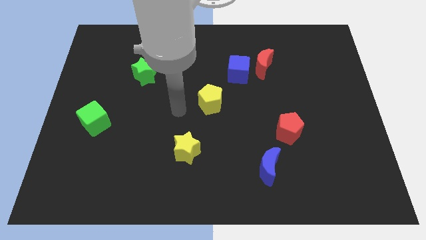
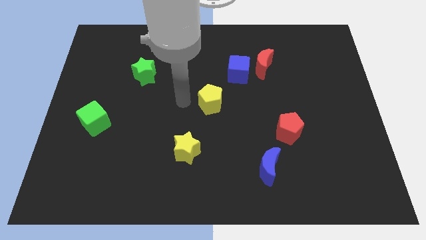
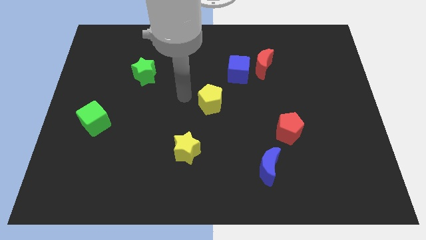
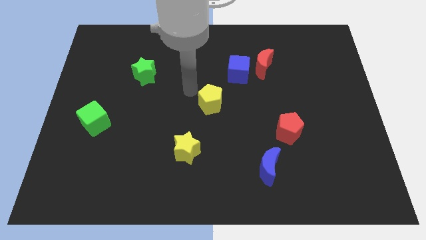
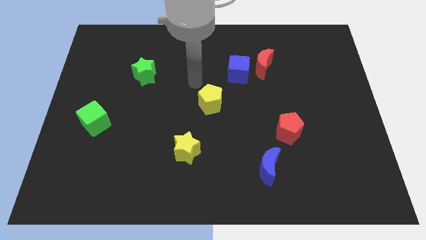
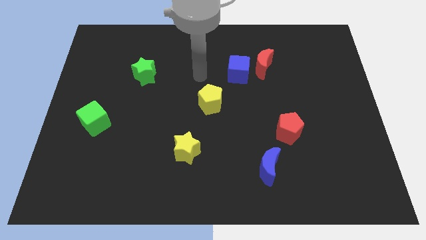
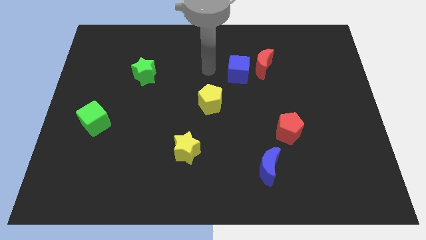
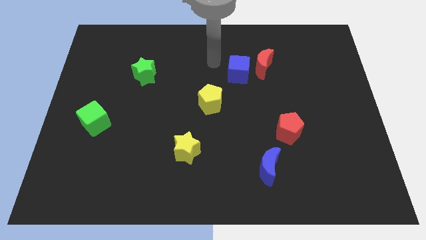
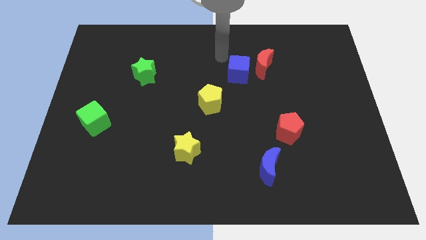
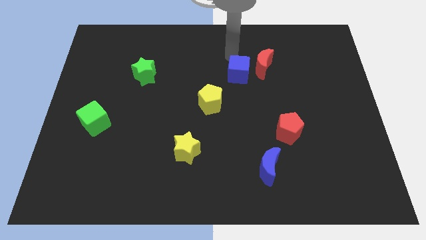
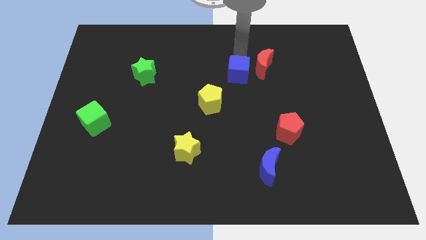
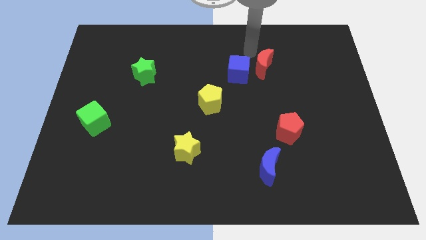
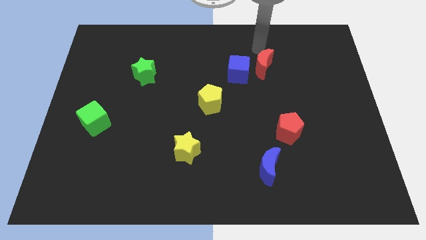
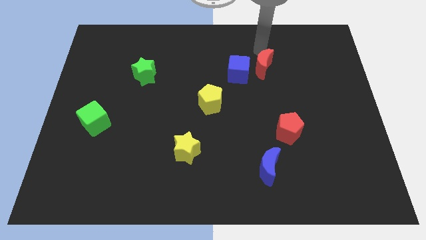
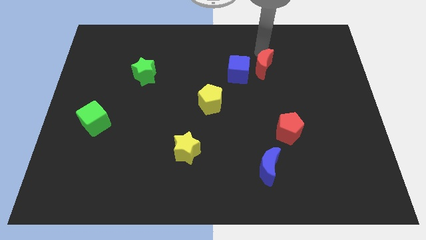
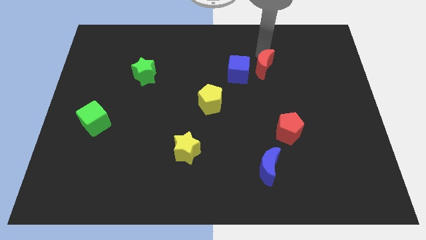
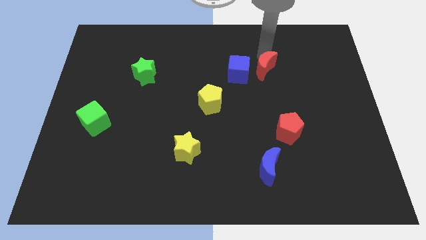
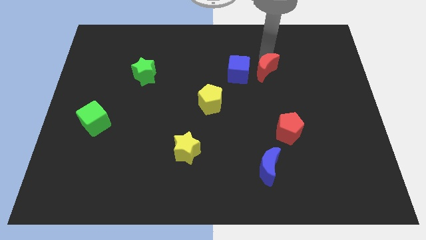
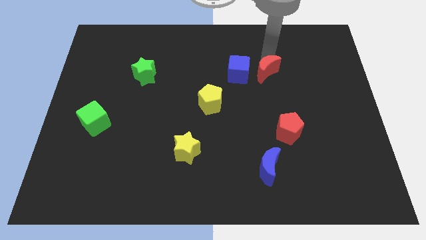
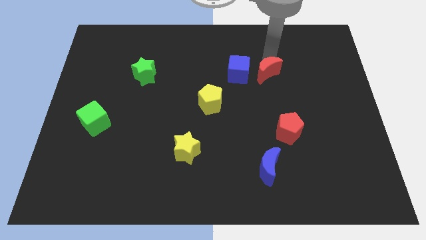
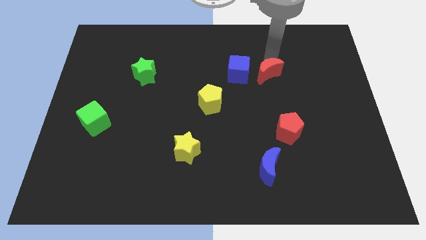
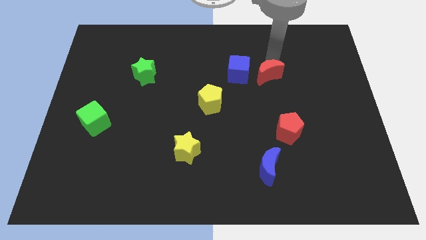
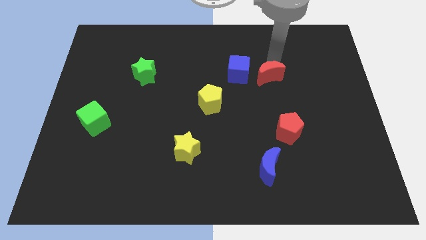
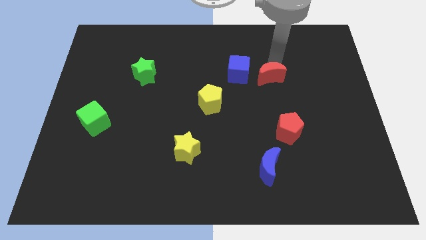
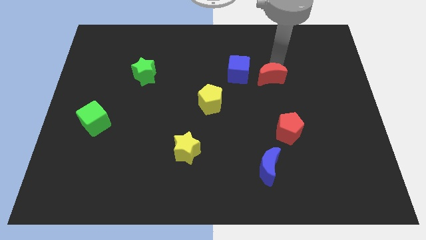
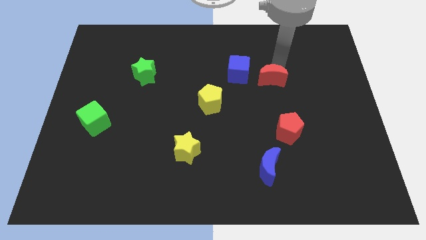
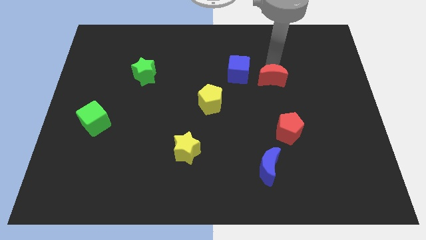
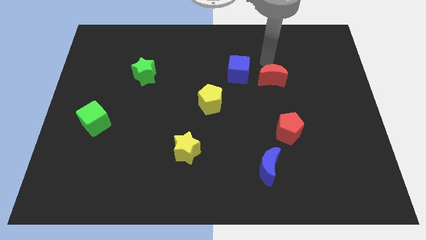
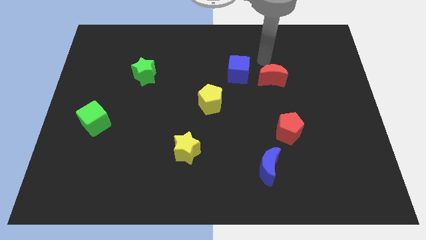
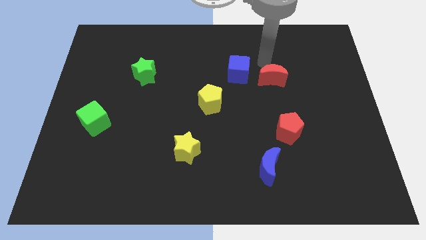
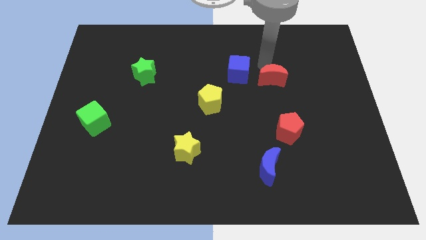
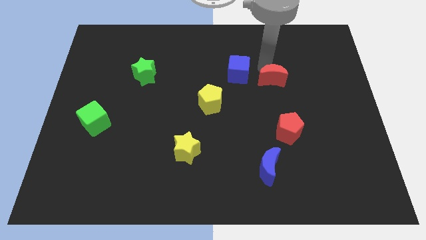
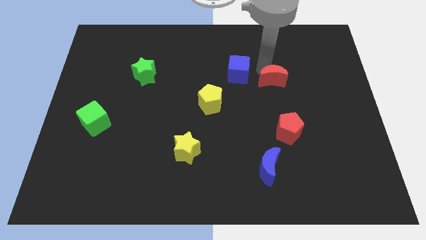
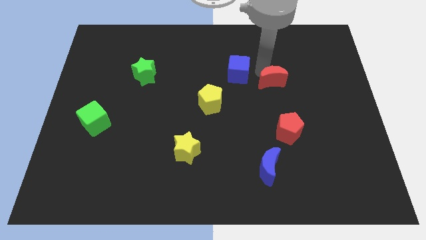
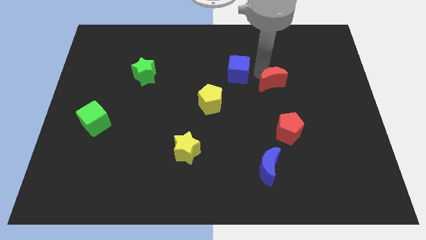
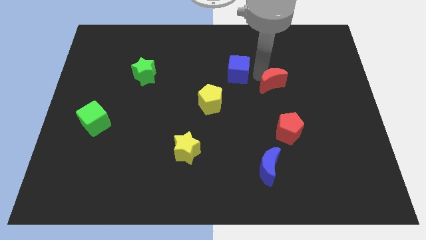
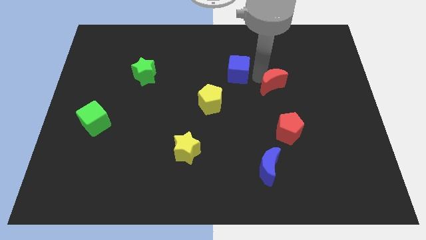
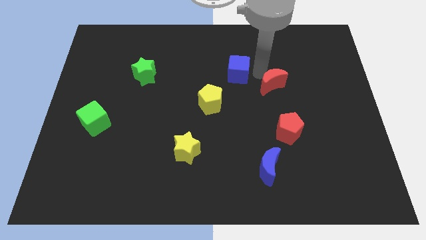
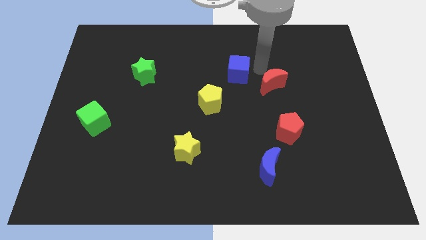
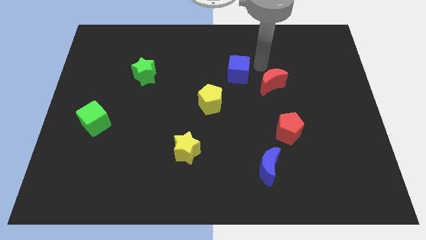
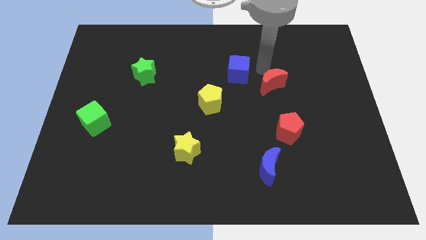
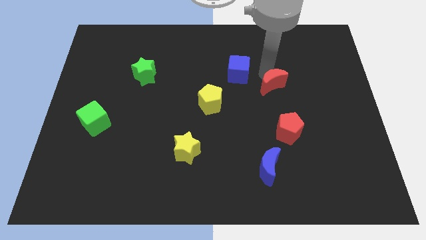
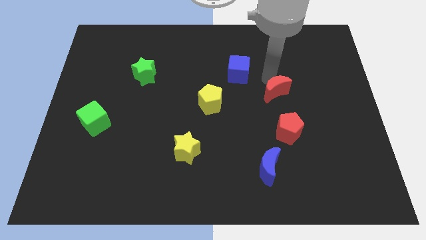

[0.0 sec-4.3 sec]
slightly move the red moon down

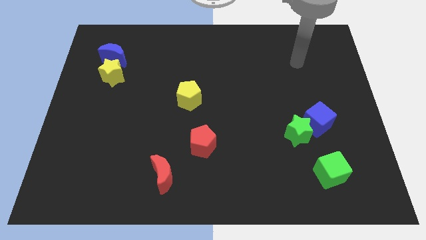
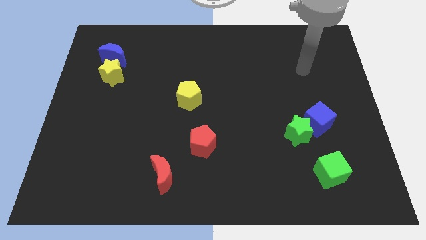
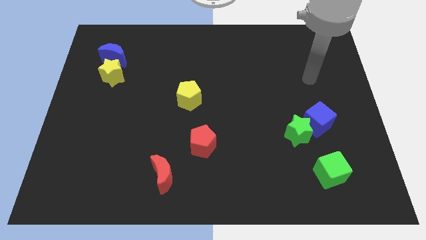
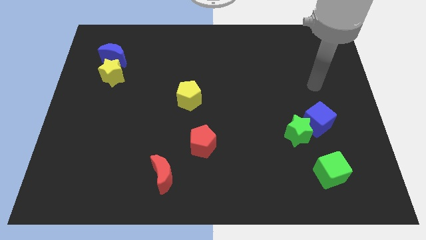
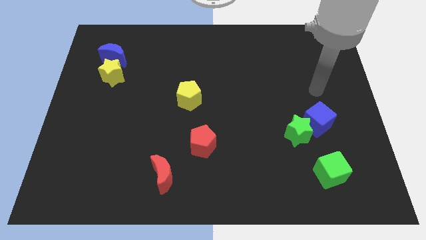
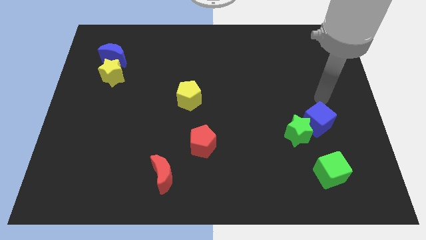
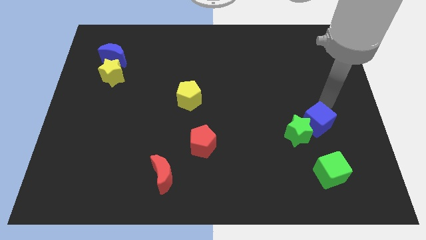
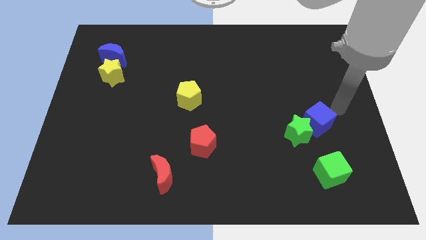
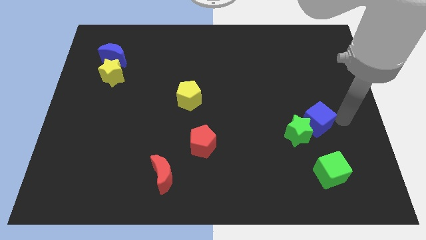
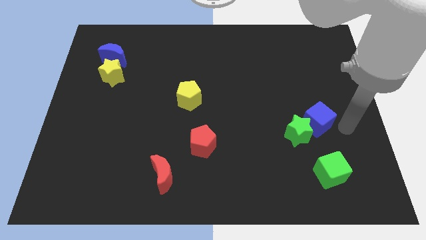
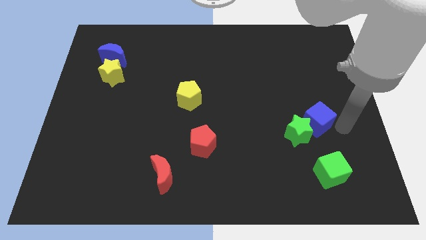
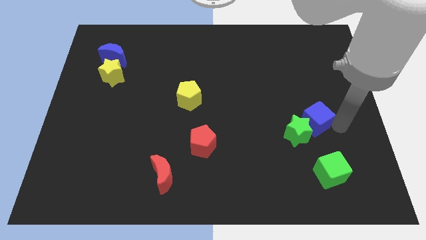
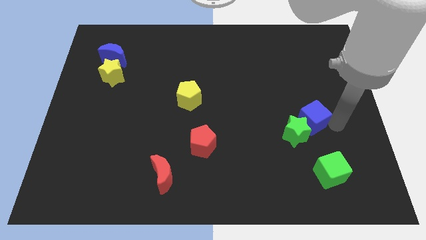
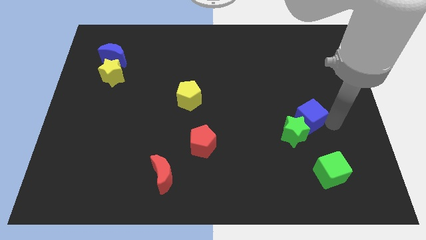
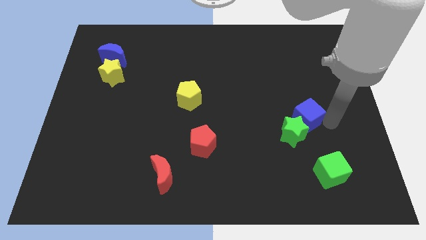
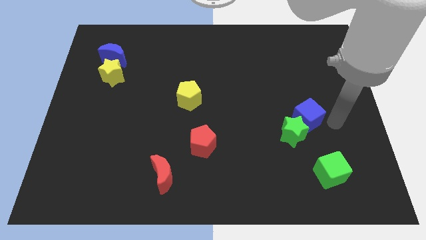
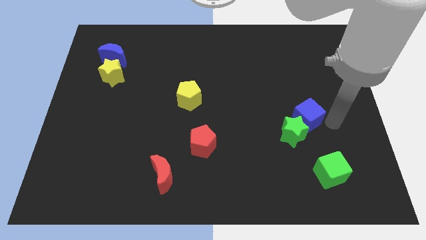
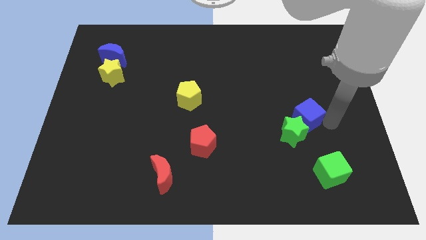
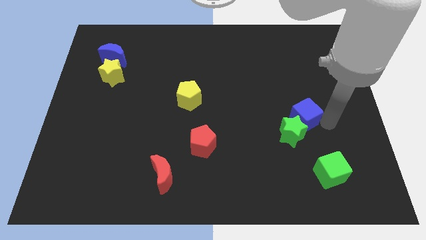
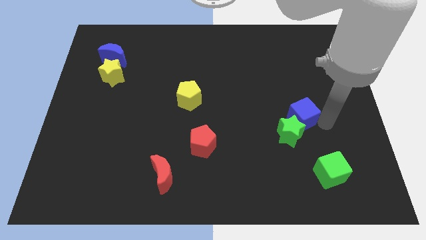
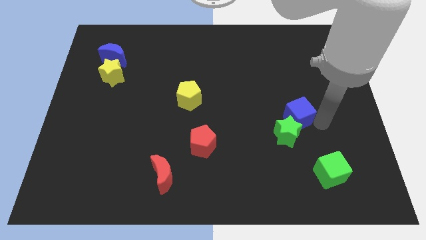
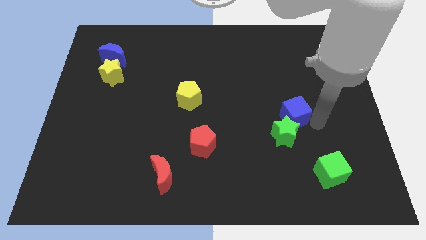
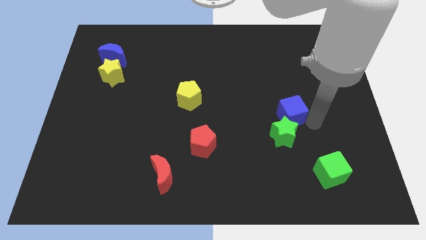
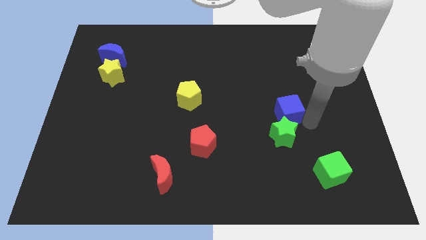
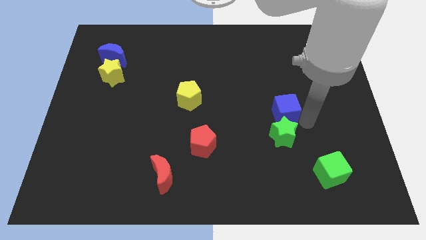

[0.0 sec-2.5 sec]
slide the blue cube a bit to the left

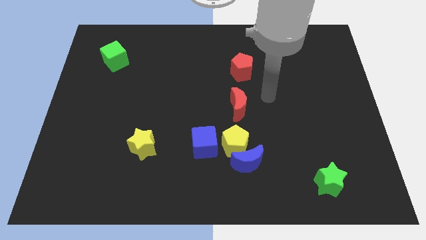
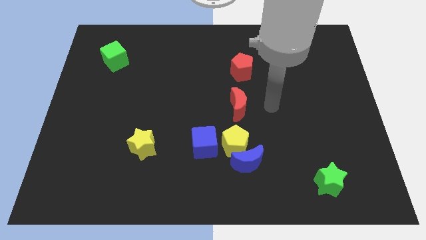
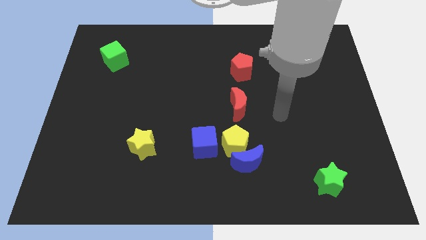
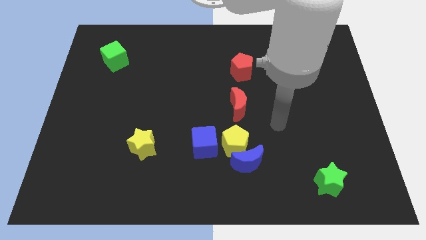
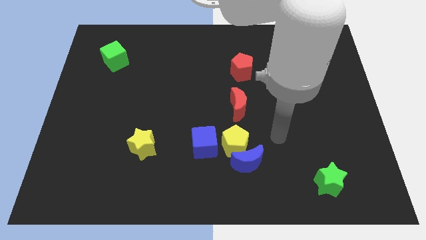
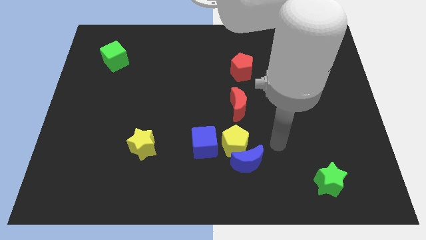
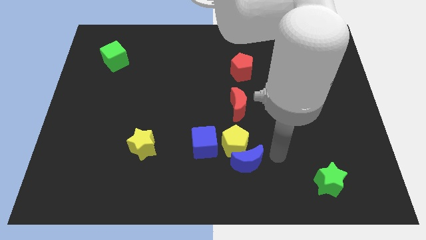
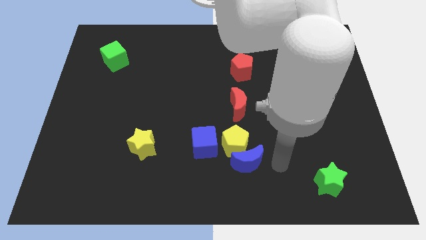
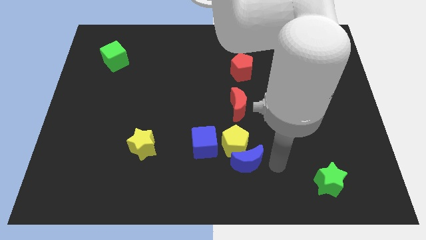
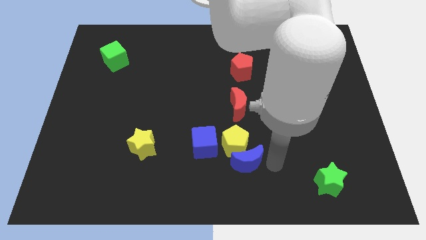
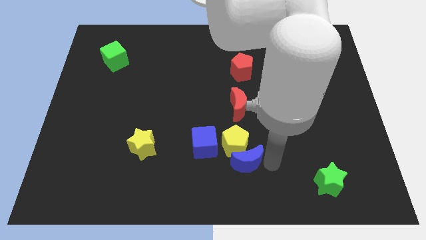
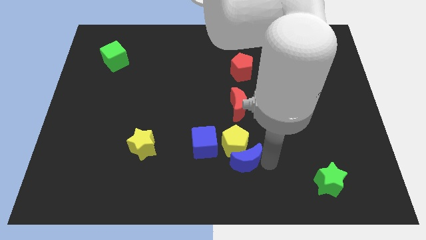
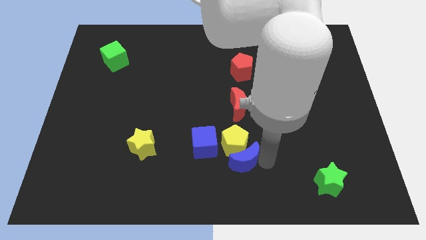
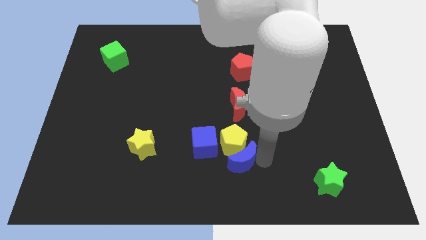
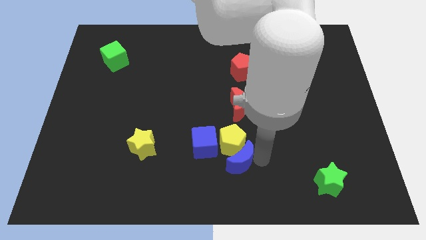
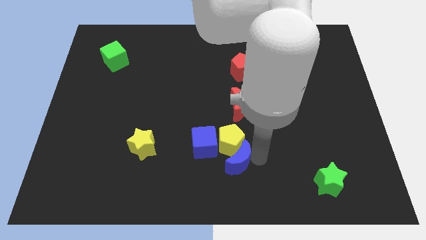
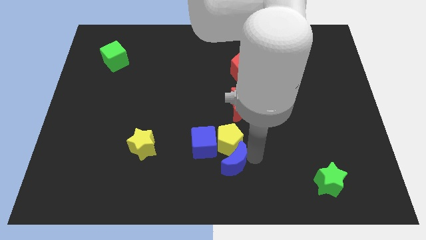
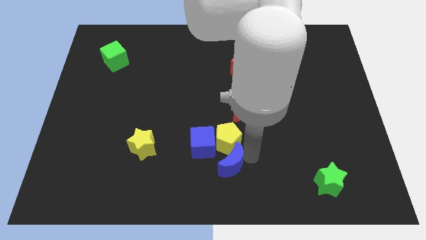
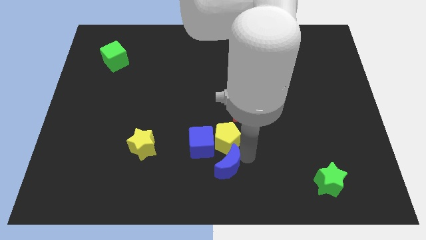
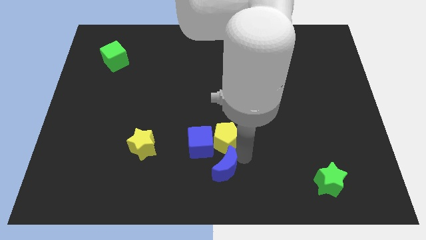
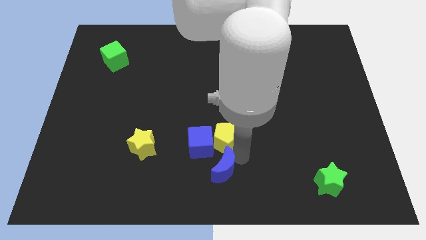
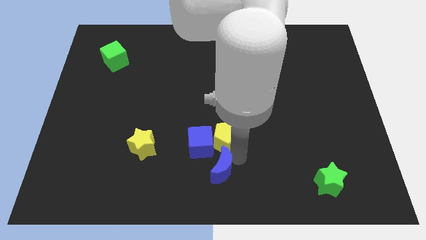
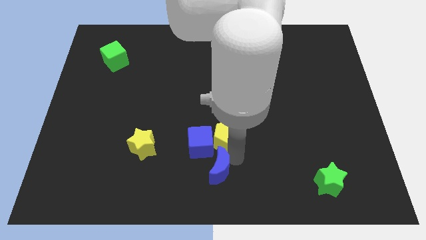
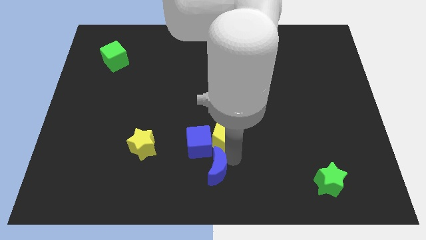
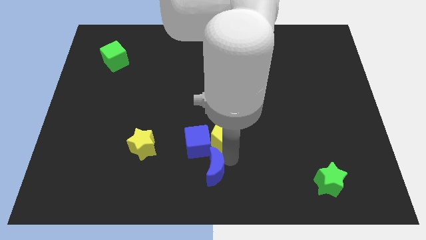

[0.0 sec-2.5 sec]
slide the blue moon a bit left
